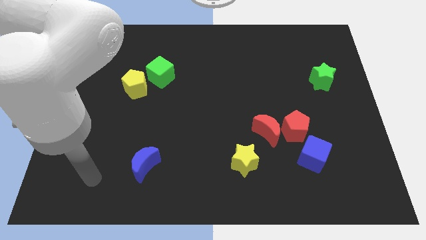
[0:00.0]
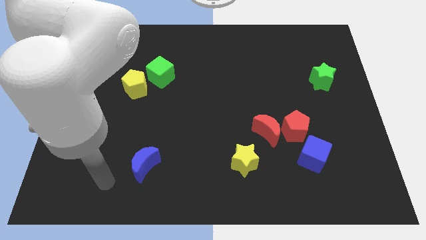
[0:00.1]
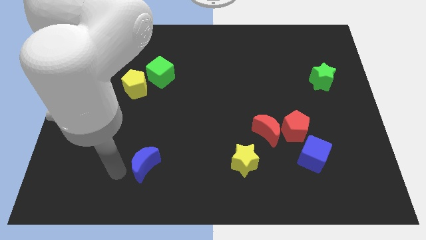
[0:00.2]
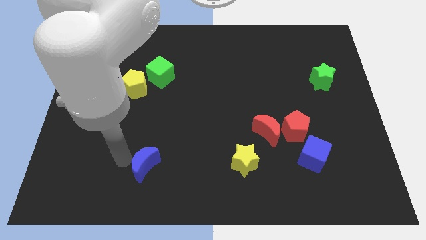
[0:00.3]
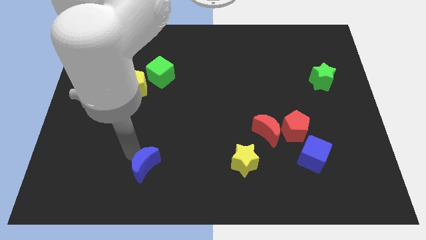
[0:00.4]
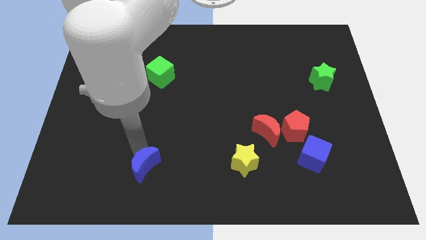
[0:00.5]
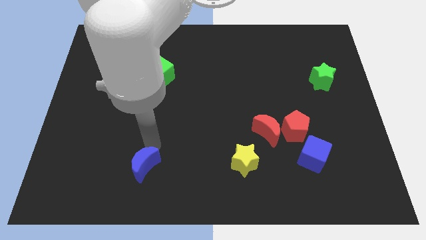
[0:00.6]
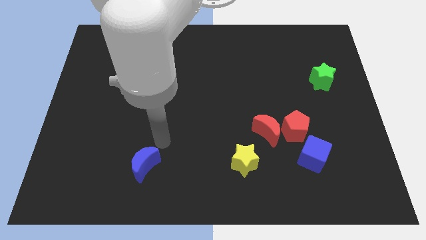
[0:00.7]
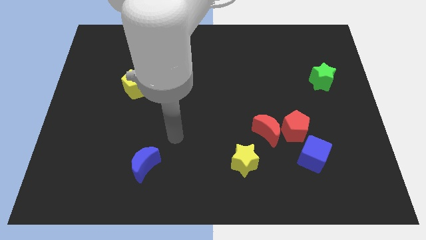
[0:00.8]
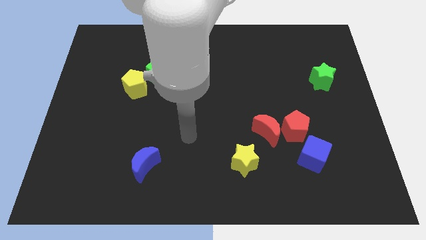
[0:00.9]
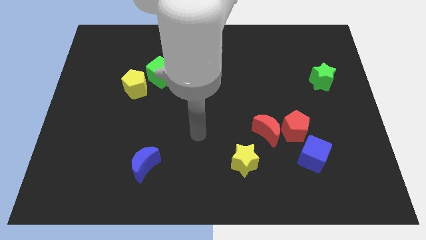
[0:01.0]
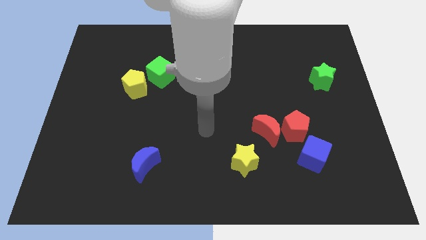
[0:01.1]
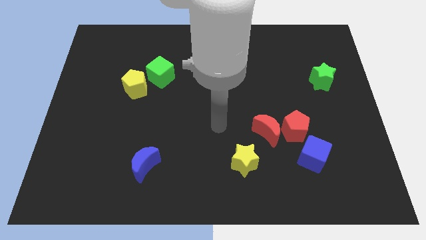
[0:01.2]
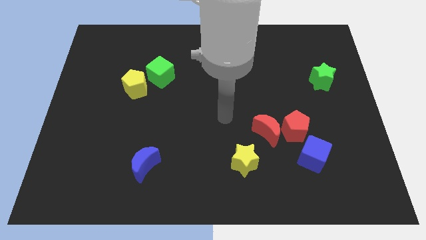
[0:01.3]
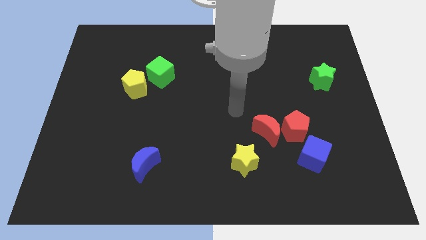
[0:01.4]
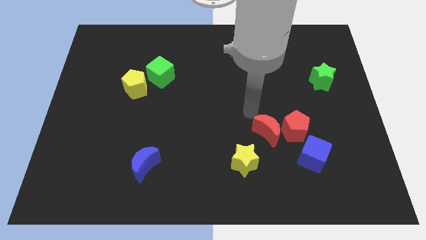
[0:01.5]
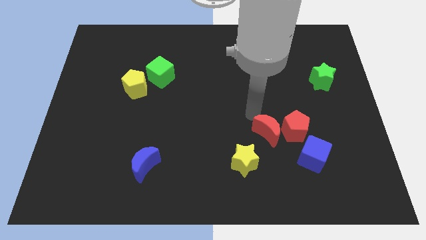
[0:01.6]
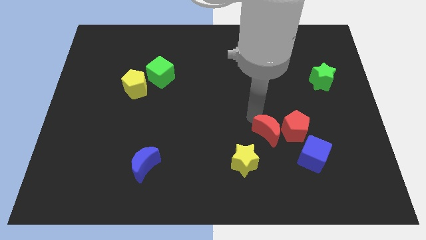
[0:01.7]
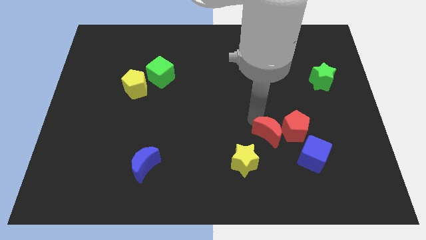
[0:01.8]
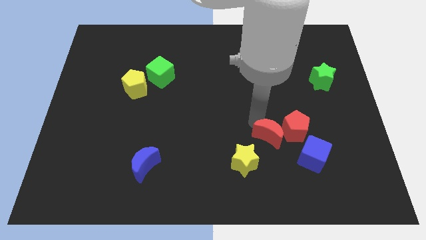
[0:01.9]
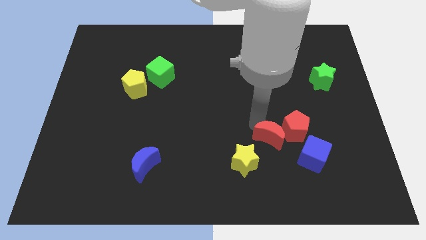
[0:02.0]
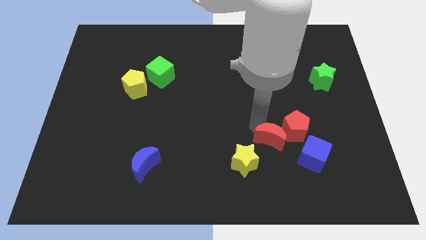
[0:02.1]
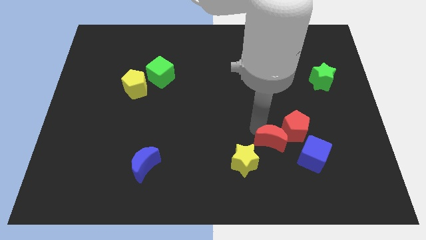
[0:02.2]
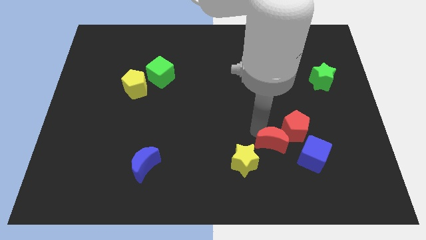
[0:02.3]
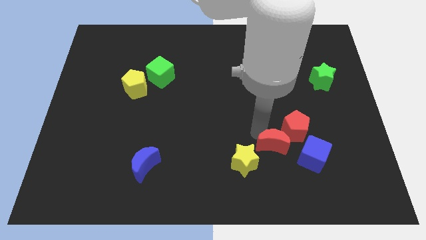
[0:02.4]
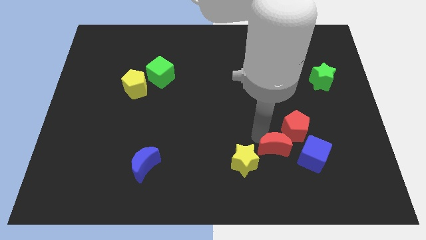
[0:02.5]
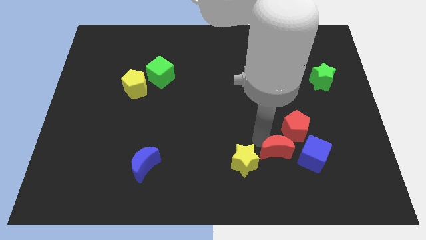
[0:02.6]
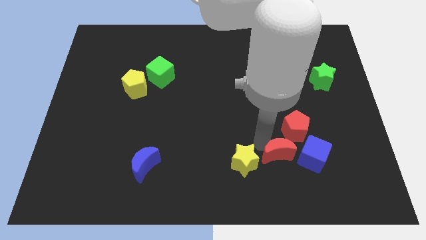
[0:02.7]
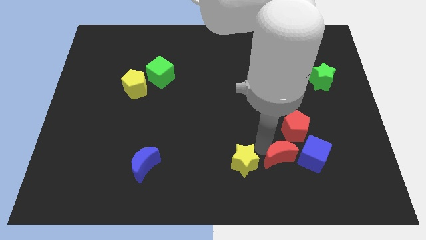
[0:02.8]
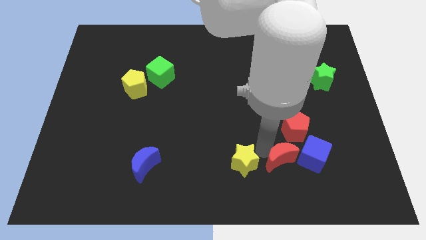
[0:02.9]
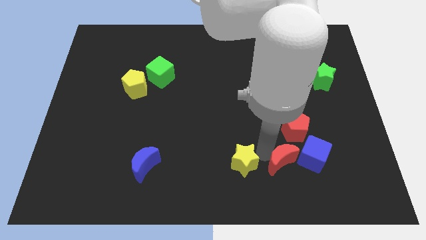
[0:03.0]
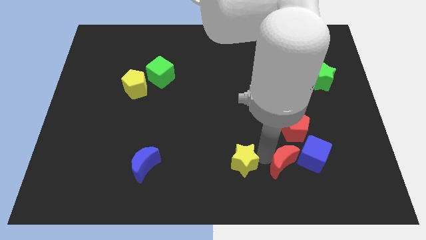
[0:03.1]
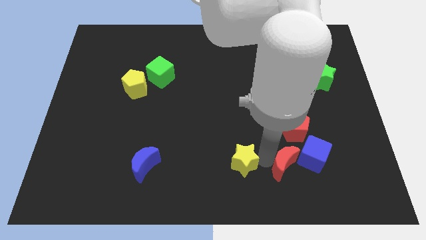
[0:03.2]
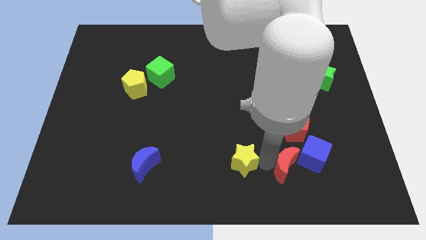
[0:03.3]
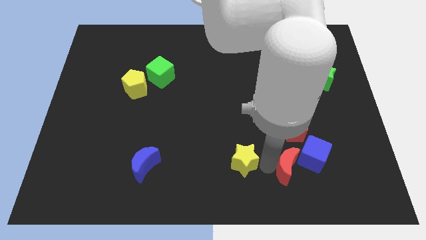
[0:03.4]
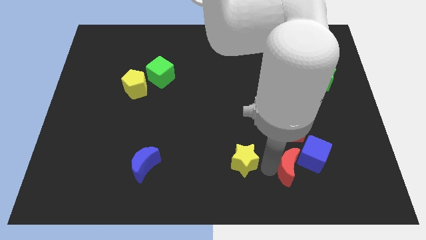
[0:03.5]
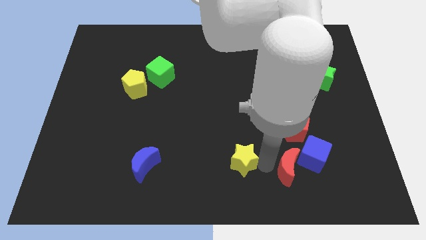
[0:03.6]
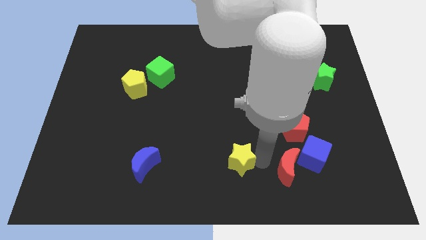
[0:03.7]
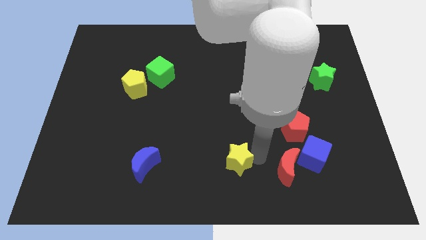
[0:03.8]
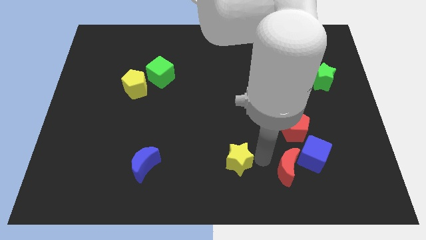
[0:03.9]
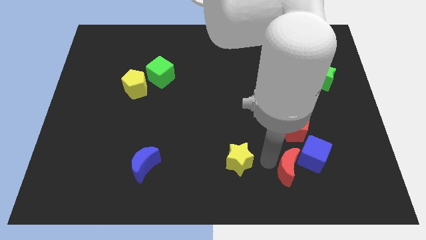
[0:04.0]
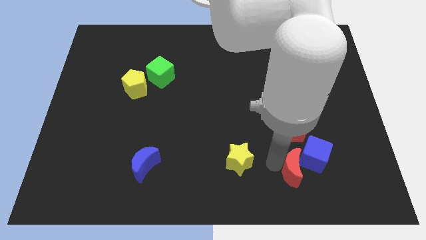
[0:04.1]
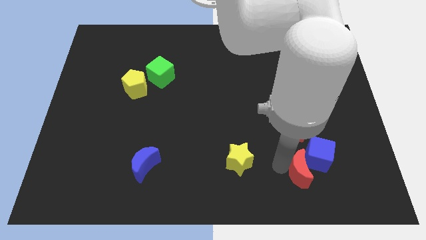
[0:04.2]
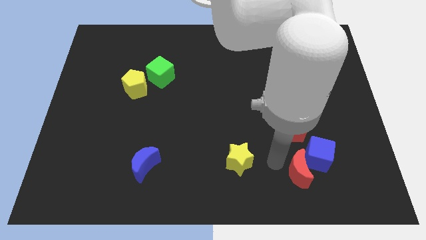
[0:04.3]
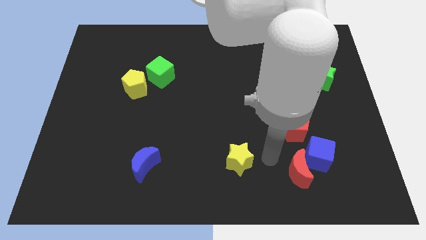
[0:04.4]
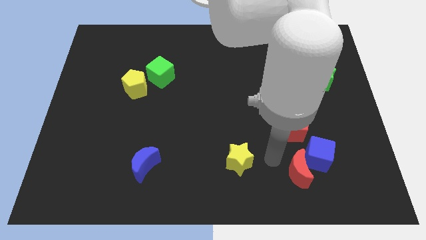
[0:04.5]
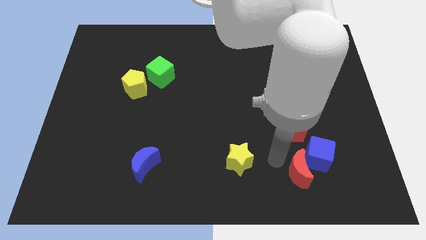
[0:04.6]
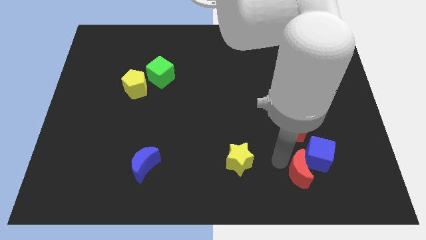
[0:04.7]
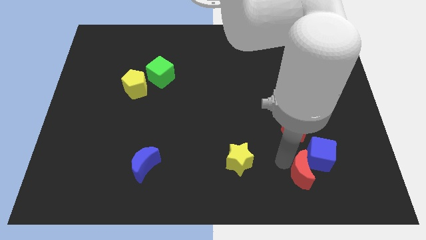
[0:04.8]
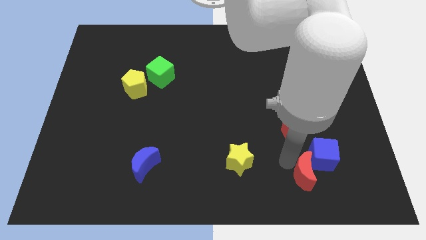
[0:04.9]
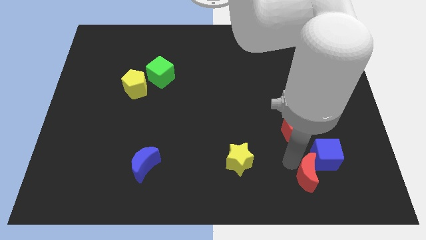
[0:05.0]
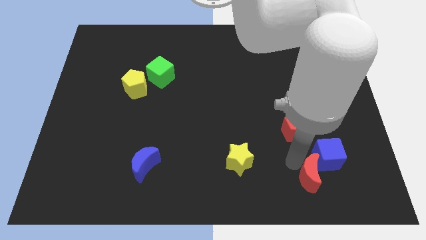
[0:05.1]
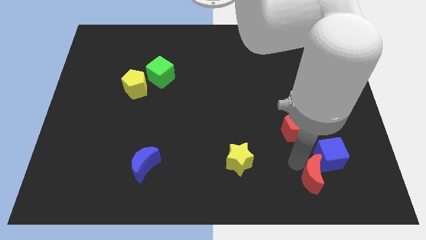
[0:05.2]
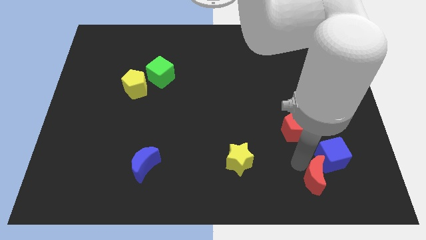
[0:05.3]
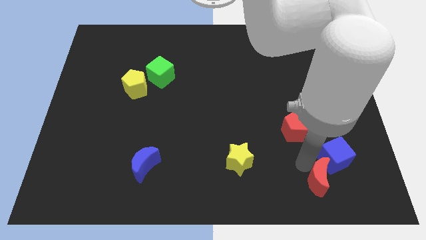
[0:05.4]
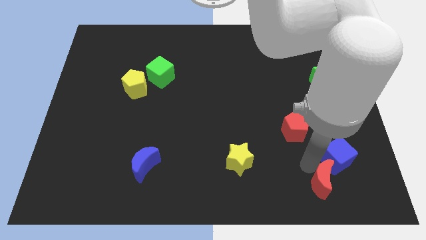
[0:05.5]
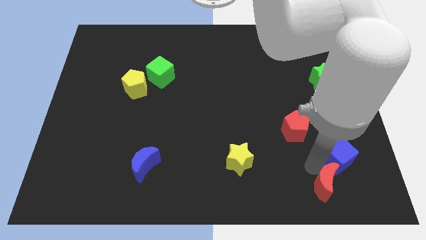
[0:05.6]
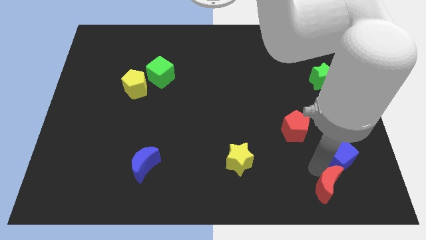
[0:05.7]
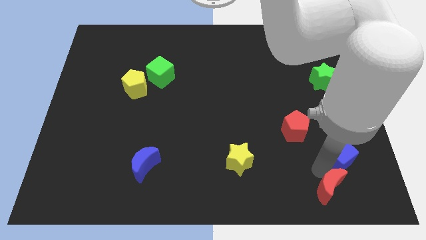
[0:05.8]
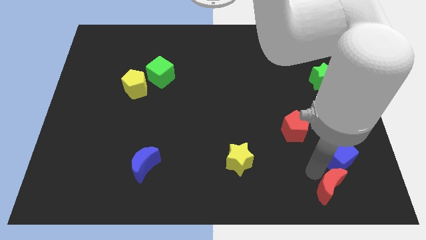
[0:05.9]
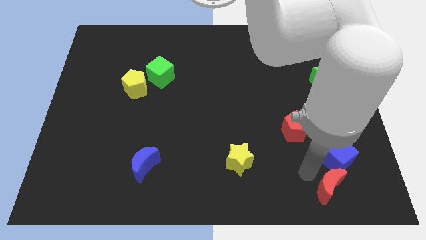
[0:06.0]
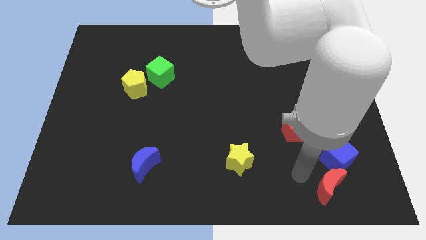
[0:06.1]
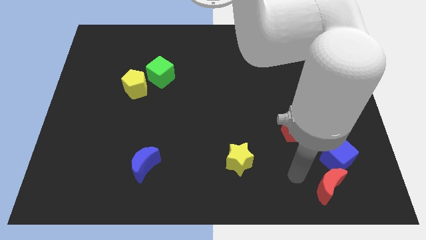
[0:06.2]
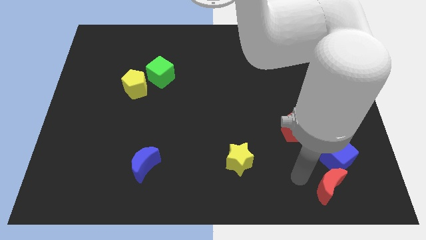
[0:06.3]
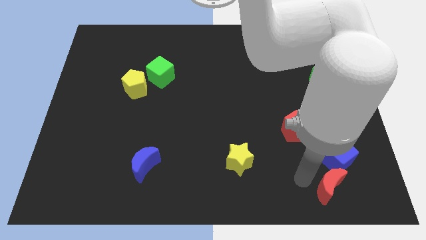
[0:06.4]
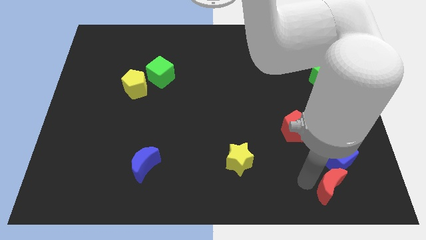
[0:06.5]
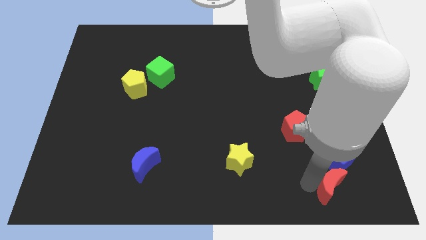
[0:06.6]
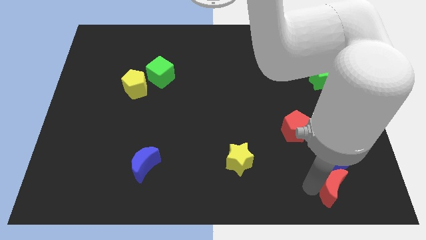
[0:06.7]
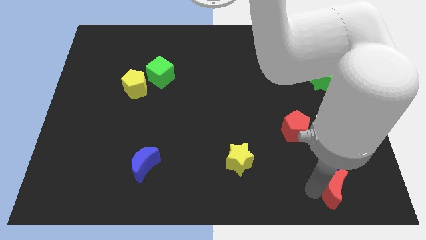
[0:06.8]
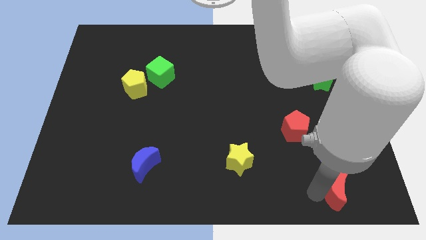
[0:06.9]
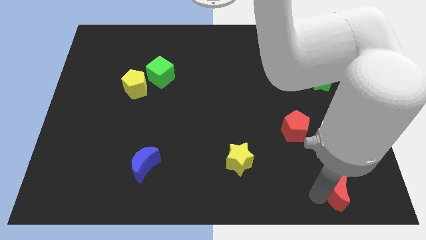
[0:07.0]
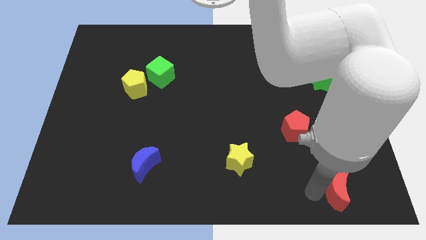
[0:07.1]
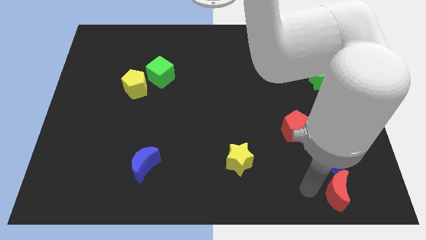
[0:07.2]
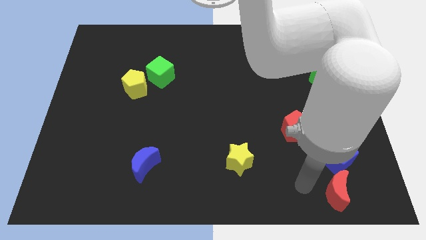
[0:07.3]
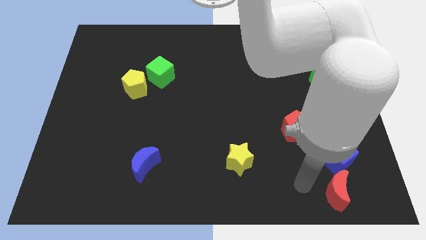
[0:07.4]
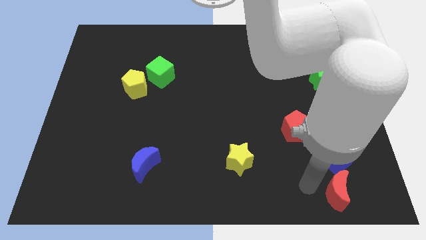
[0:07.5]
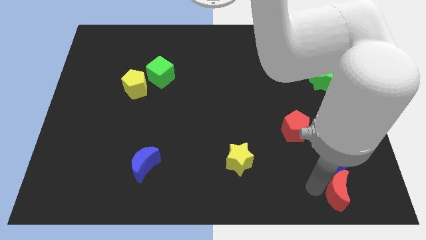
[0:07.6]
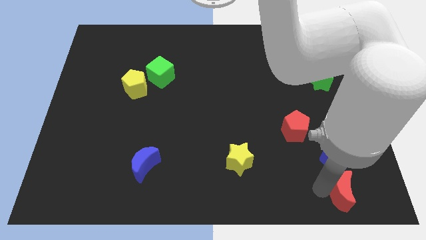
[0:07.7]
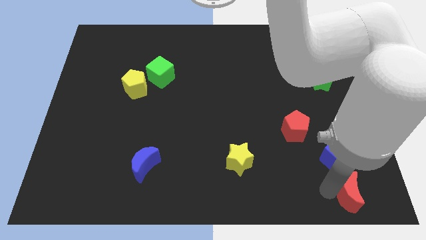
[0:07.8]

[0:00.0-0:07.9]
slide the red moon to the bottom right
